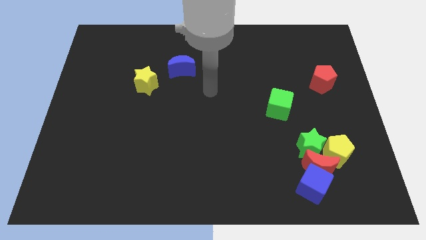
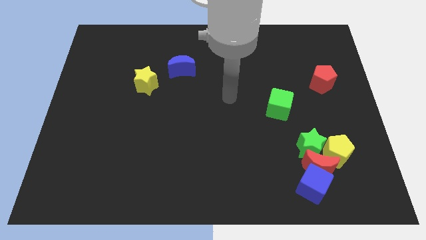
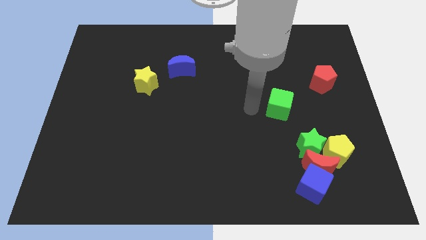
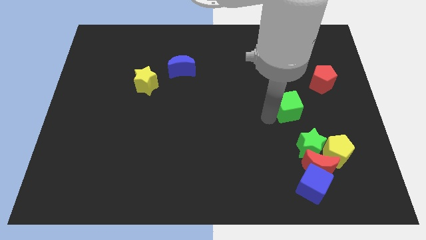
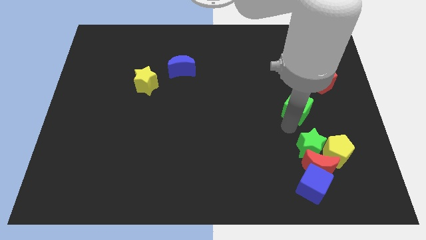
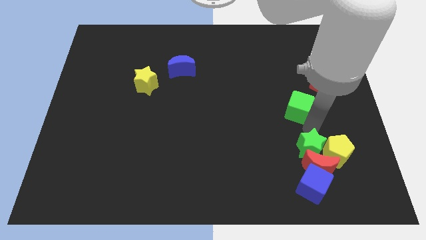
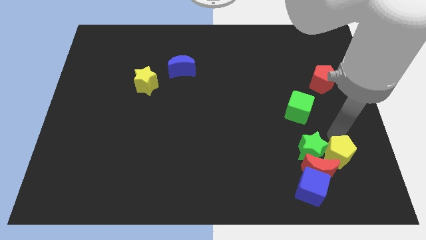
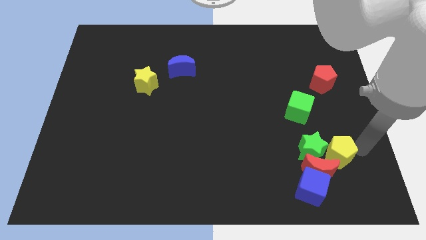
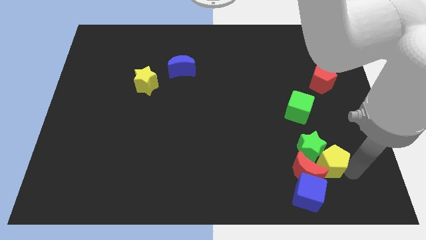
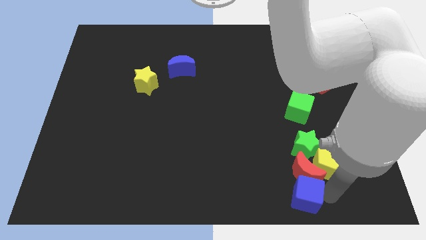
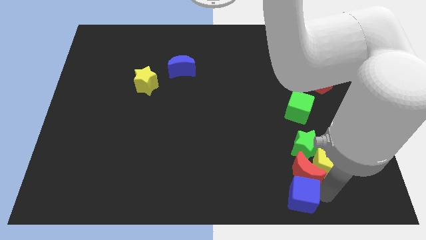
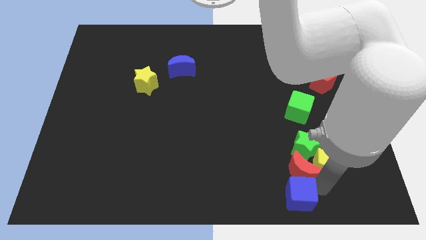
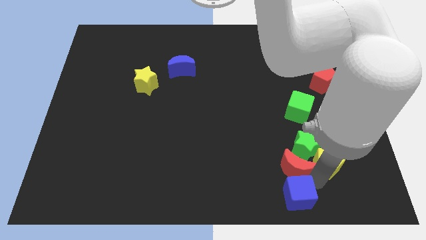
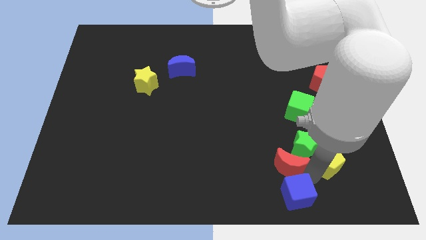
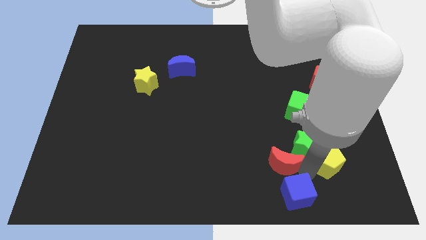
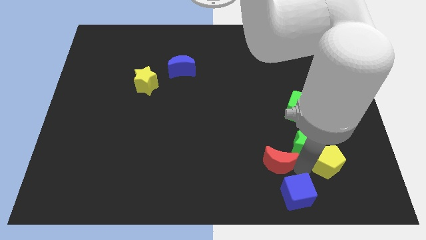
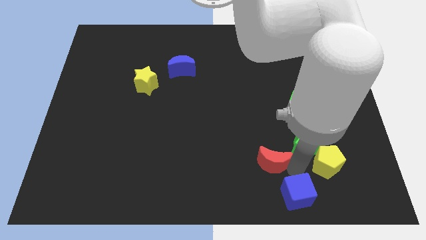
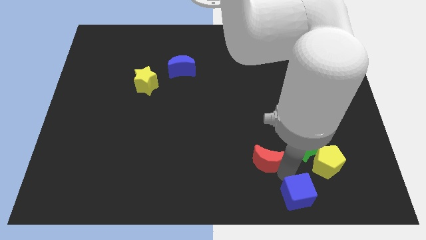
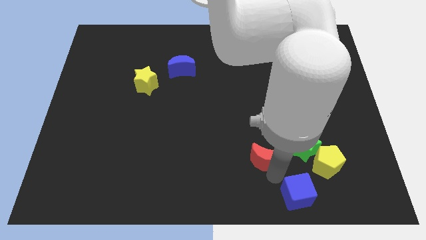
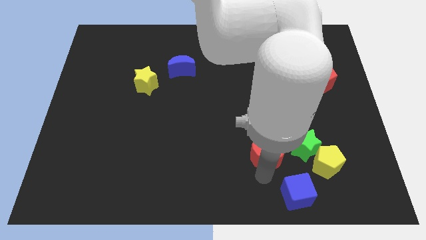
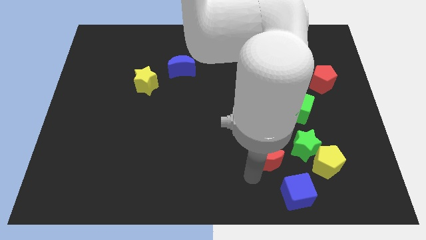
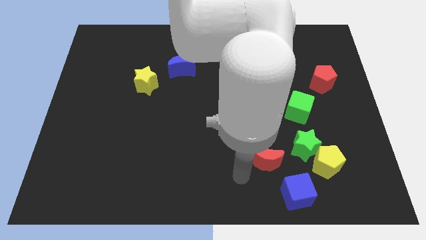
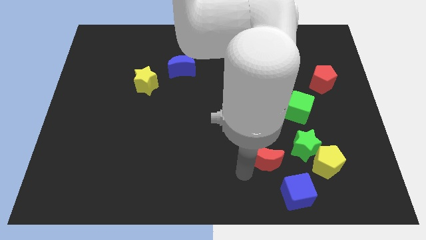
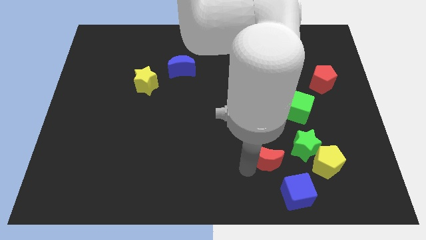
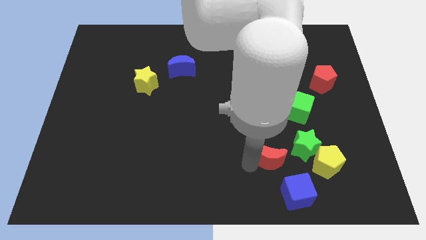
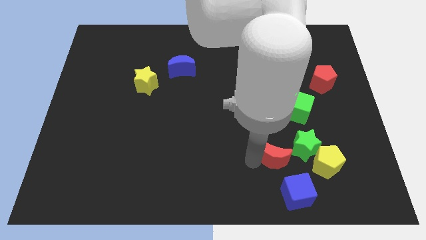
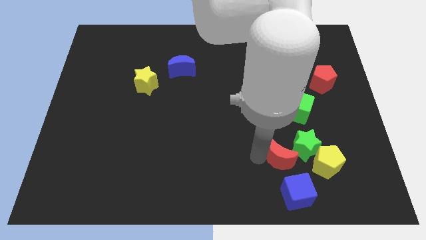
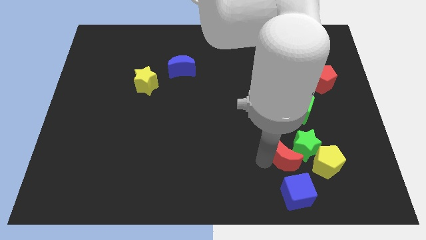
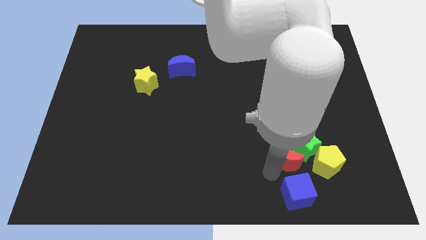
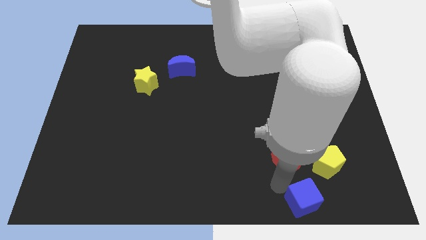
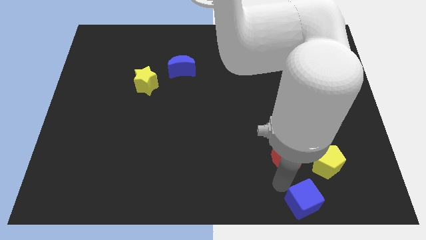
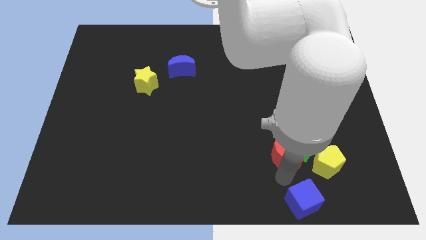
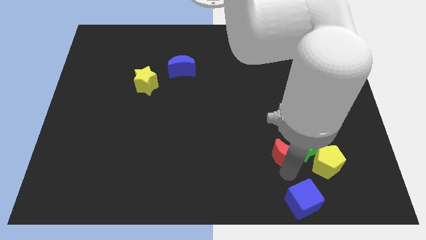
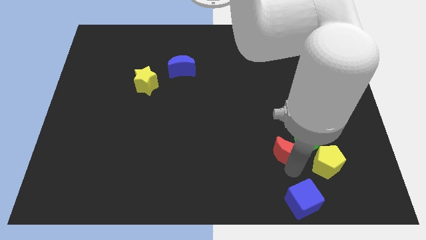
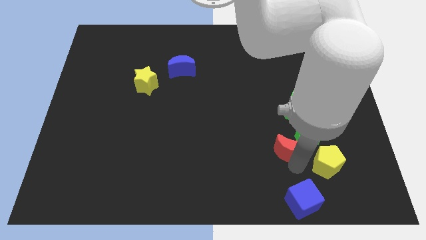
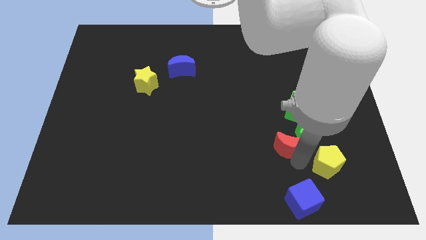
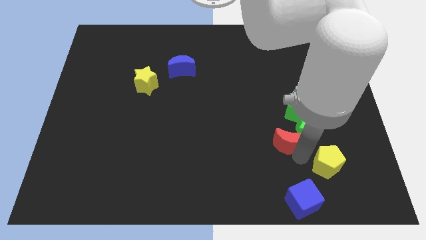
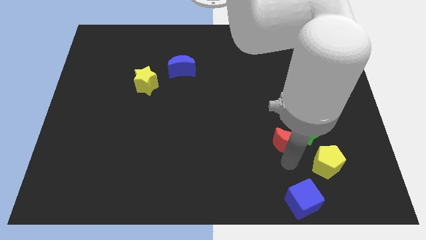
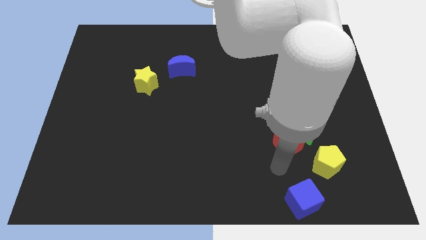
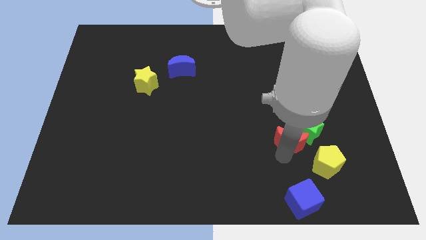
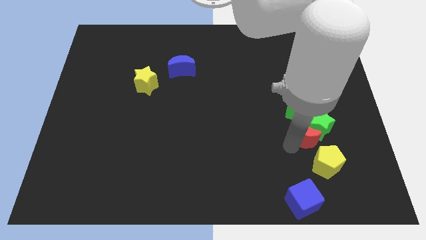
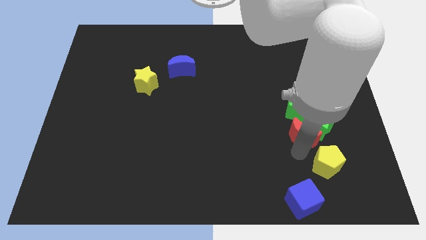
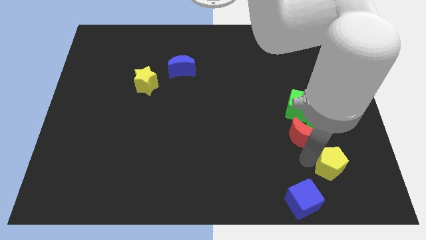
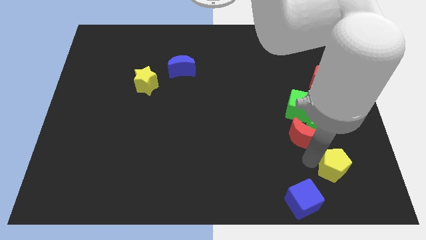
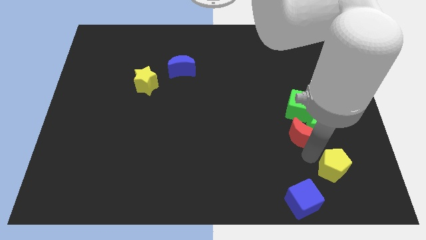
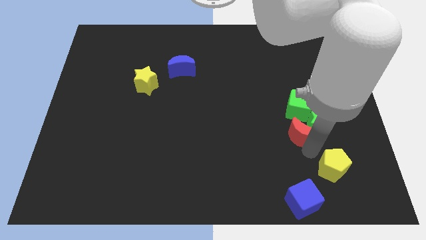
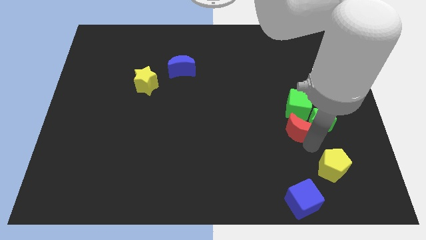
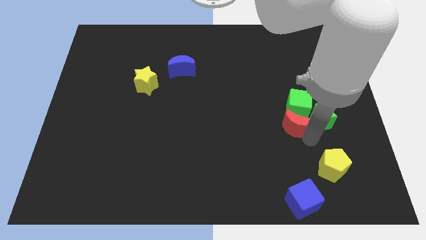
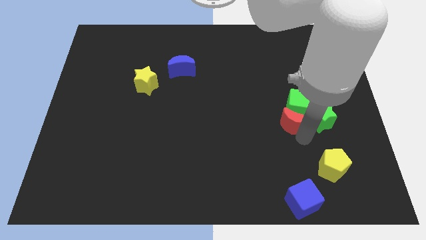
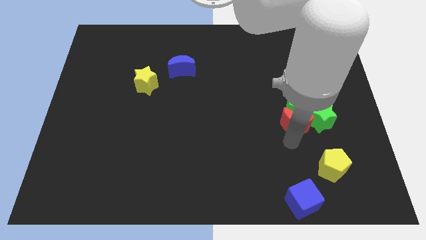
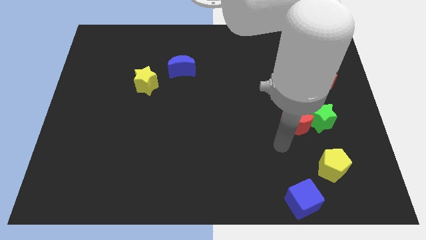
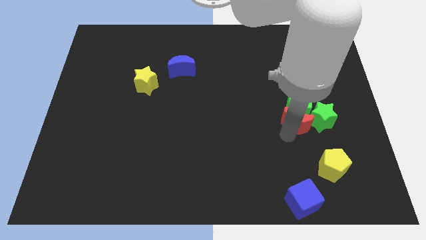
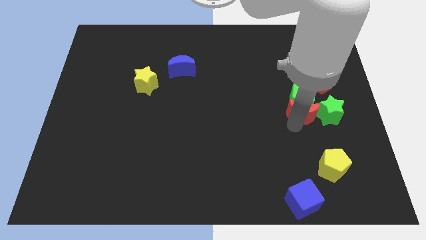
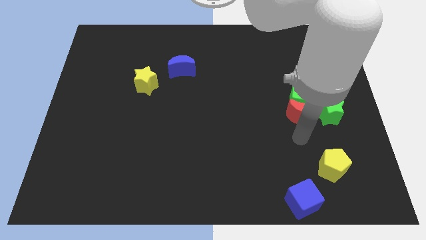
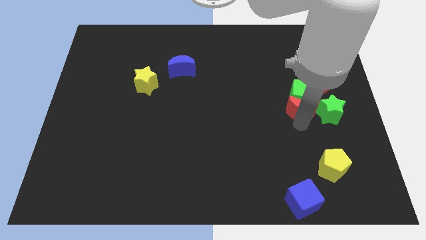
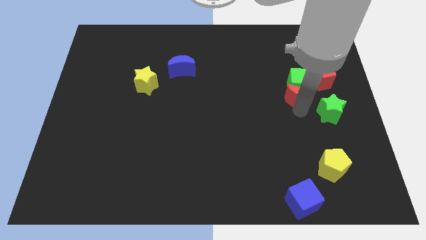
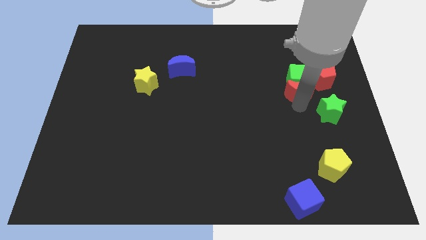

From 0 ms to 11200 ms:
push the red moon upwards

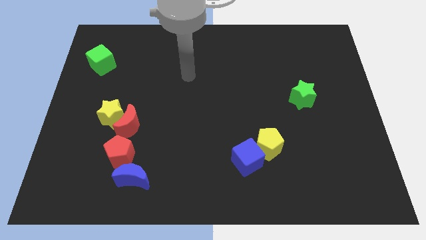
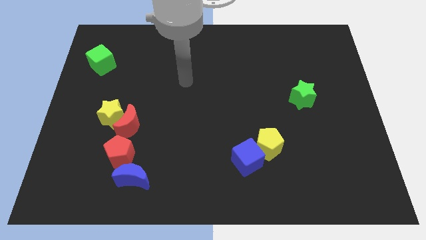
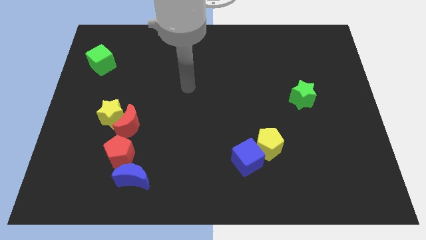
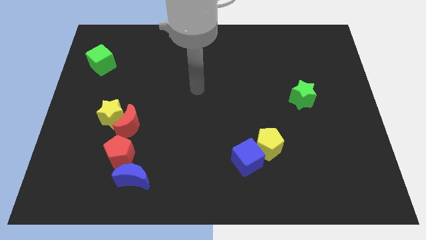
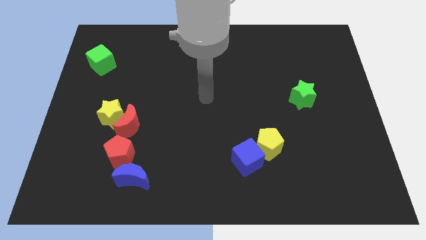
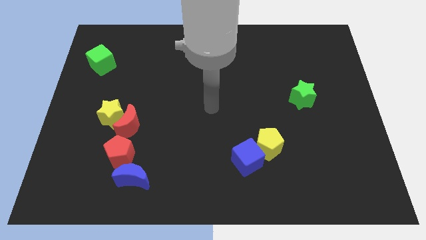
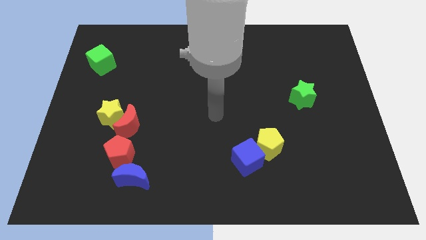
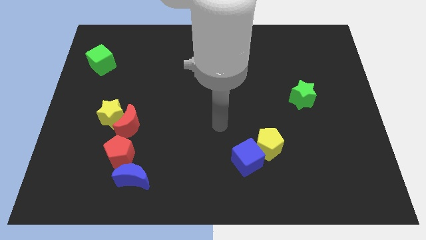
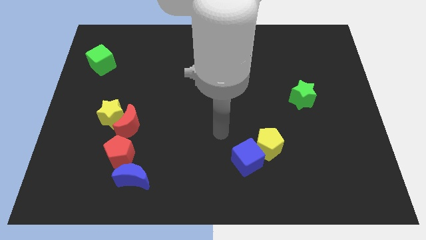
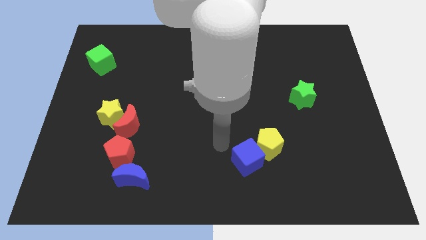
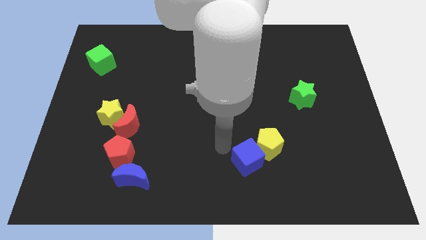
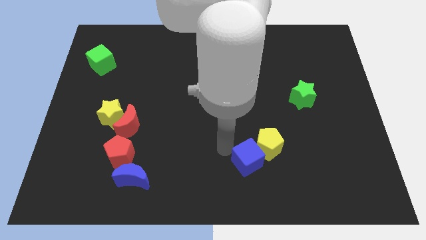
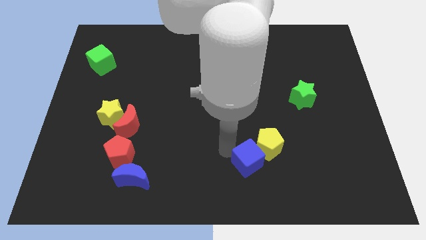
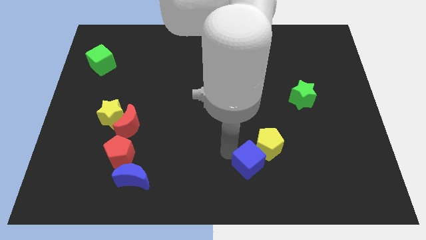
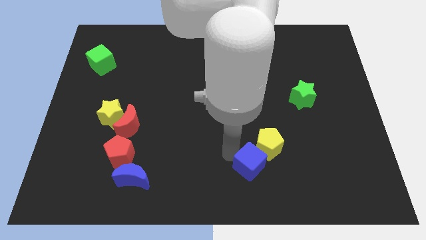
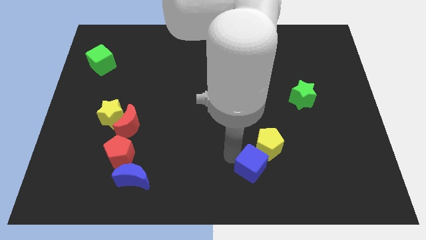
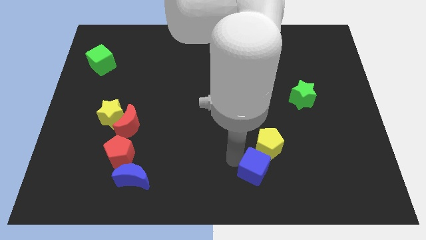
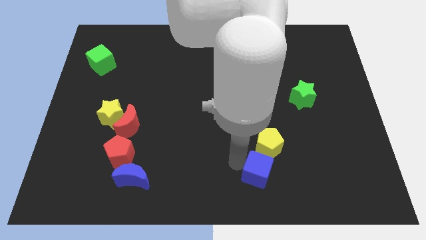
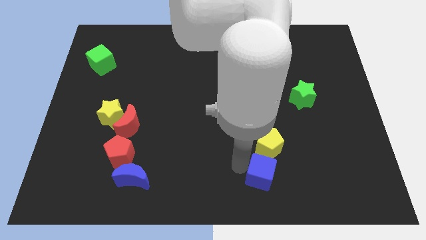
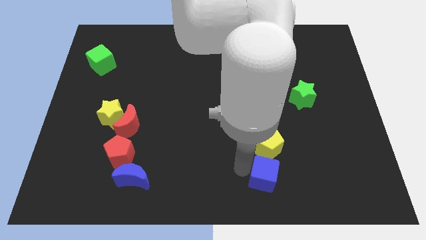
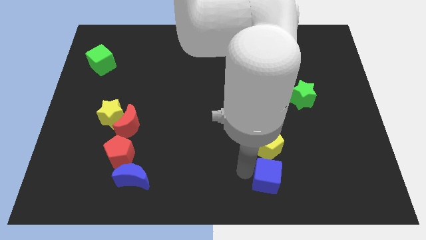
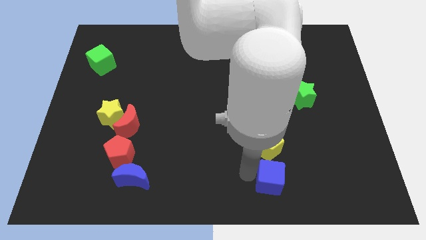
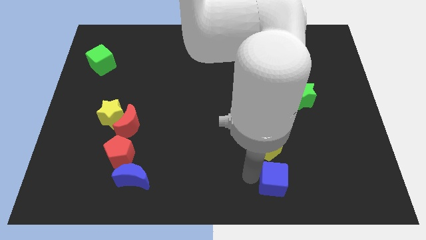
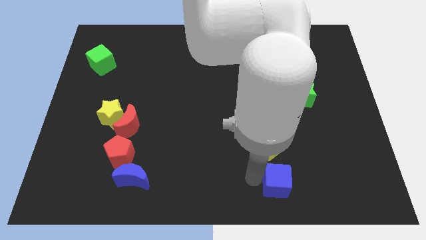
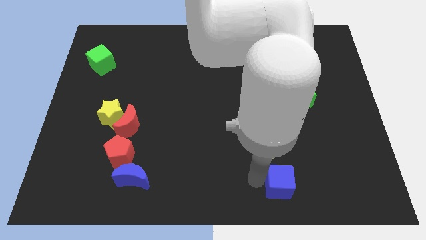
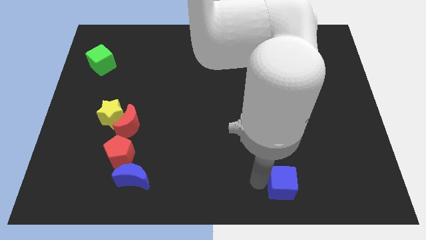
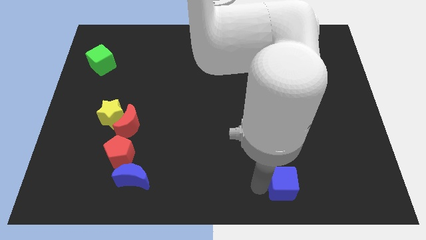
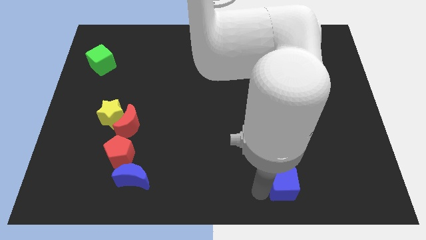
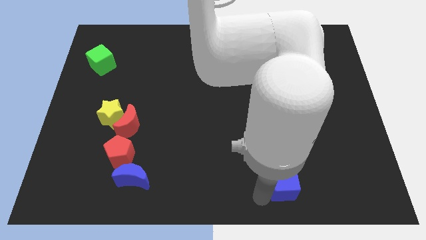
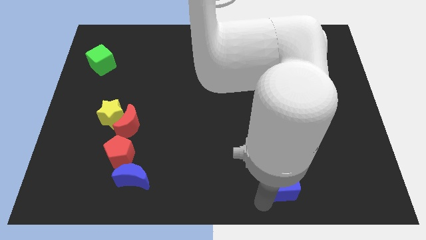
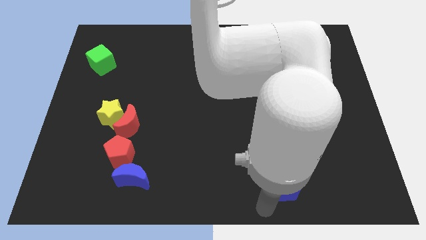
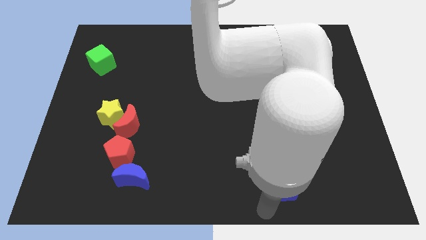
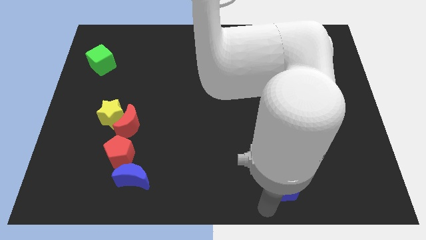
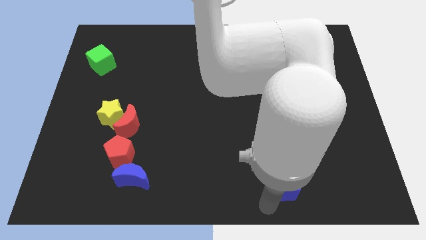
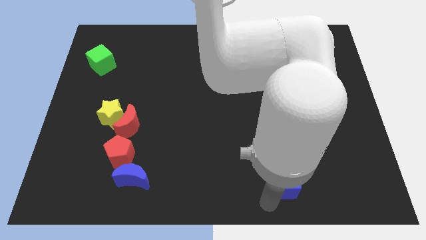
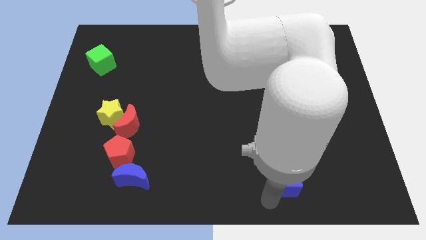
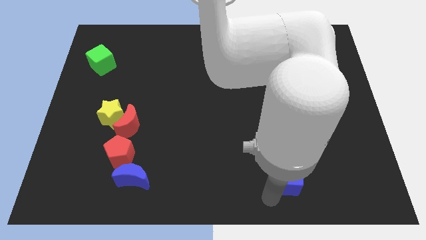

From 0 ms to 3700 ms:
slightly slide the blue cube right
